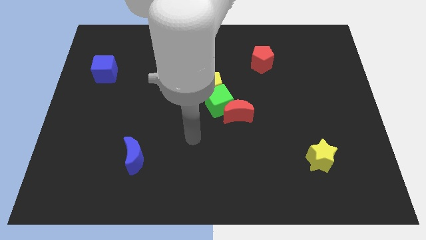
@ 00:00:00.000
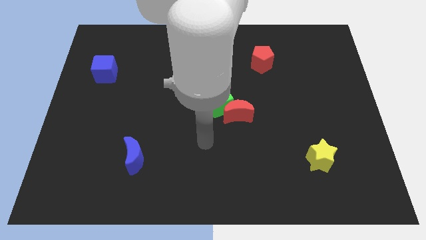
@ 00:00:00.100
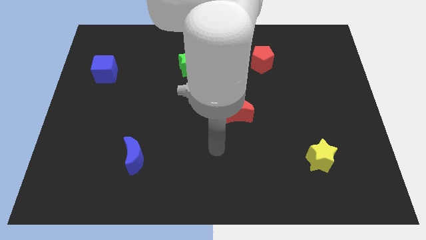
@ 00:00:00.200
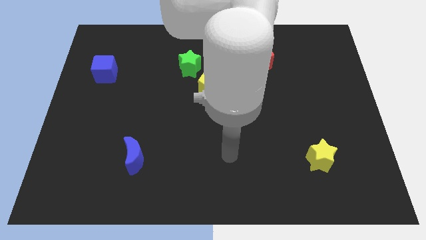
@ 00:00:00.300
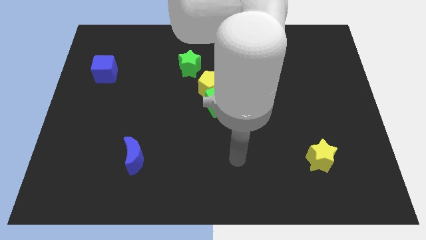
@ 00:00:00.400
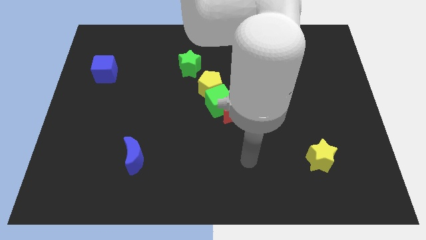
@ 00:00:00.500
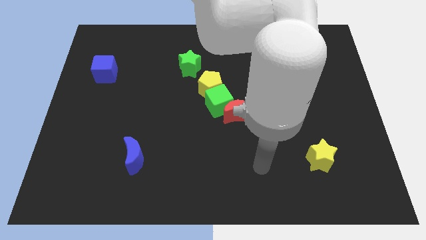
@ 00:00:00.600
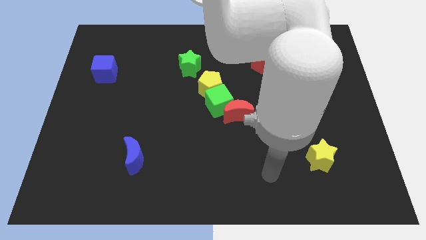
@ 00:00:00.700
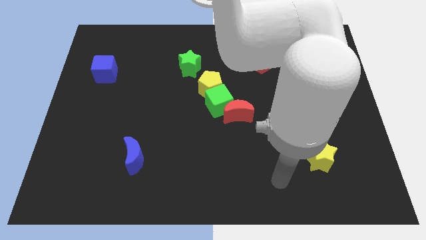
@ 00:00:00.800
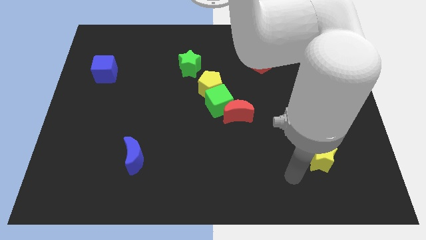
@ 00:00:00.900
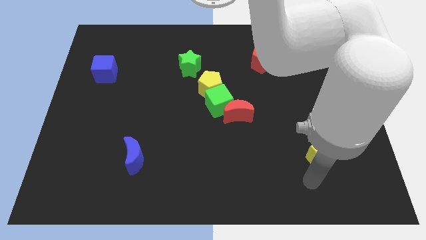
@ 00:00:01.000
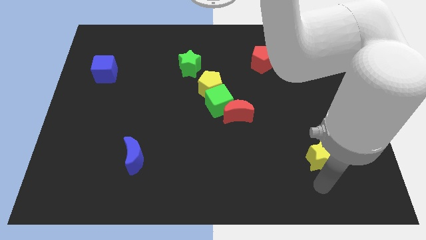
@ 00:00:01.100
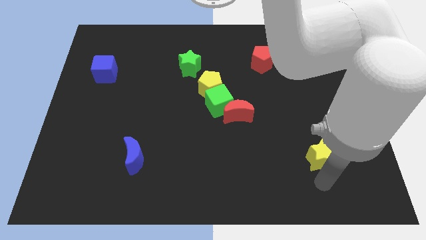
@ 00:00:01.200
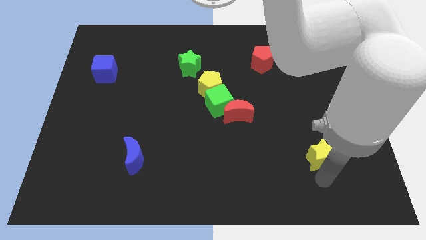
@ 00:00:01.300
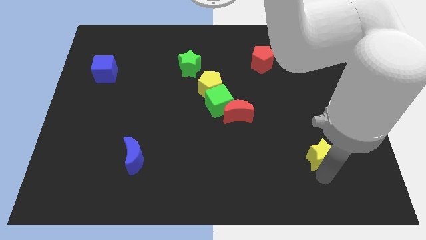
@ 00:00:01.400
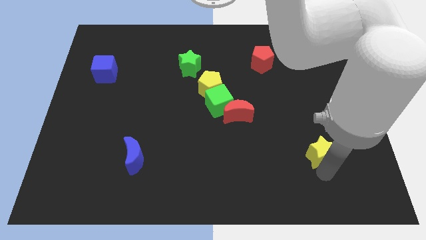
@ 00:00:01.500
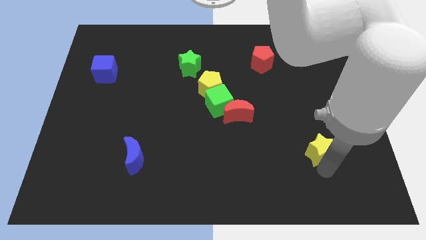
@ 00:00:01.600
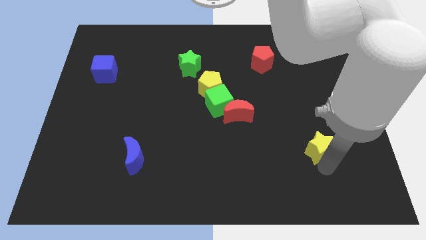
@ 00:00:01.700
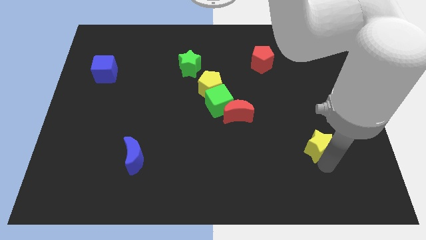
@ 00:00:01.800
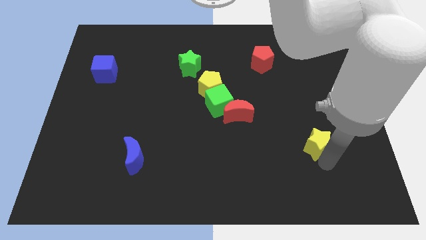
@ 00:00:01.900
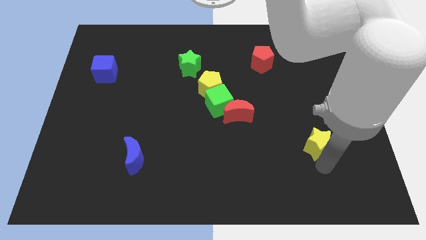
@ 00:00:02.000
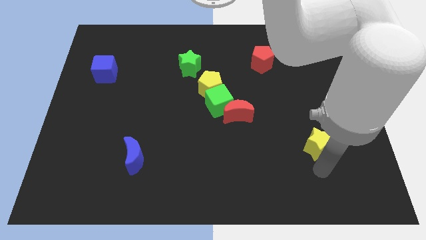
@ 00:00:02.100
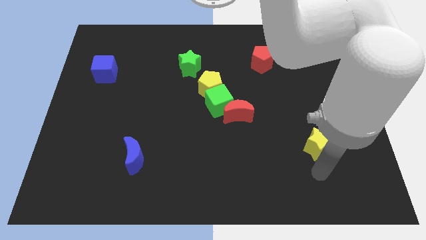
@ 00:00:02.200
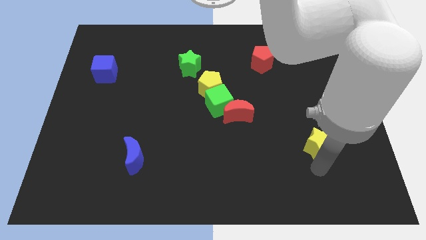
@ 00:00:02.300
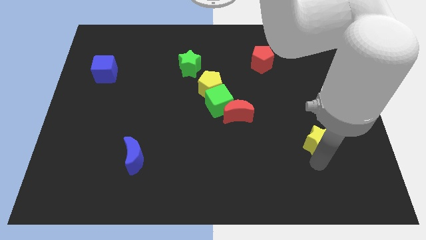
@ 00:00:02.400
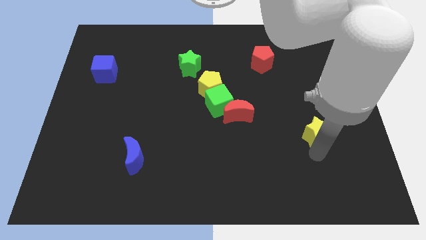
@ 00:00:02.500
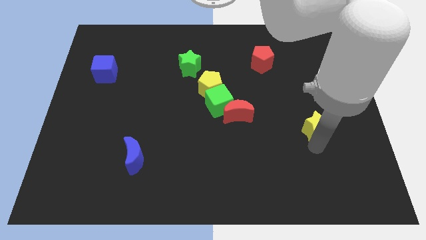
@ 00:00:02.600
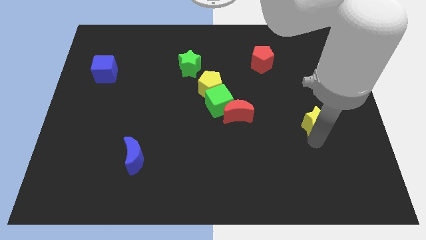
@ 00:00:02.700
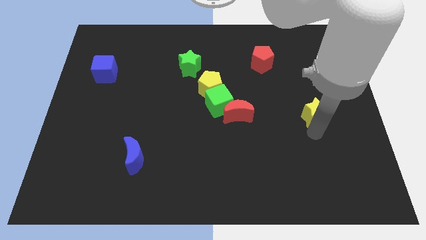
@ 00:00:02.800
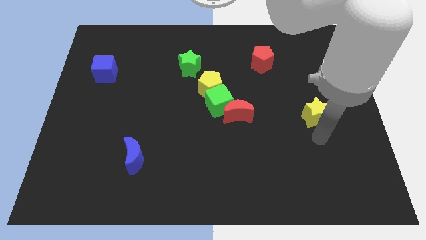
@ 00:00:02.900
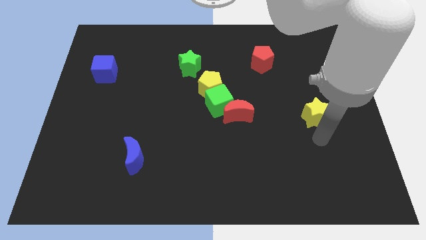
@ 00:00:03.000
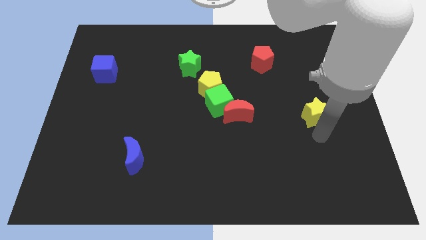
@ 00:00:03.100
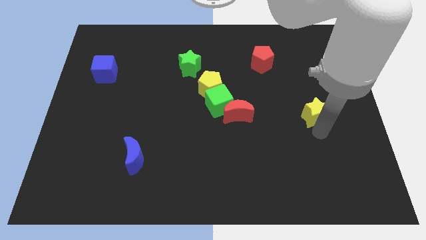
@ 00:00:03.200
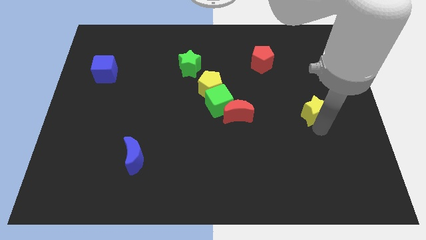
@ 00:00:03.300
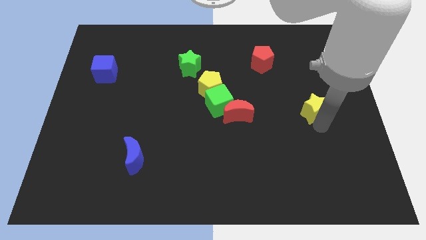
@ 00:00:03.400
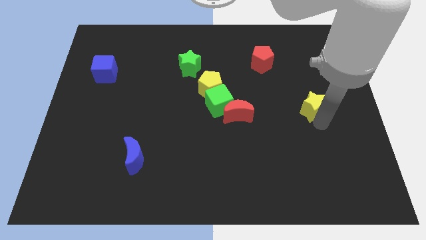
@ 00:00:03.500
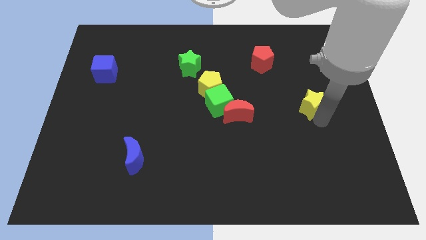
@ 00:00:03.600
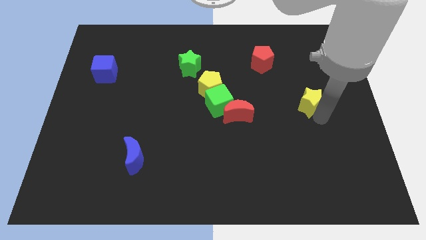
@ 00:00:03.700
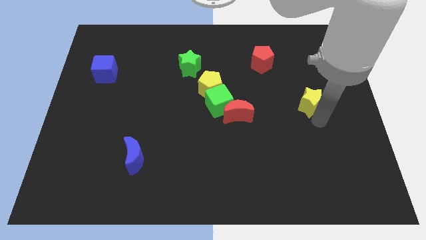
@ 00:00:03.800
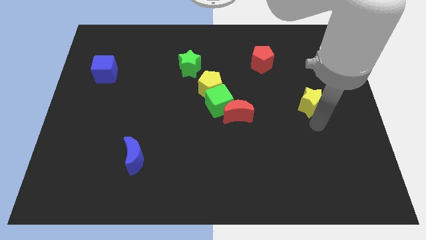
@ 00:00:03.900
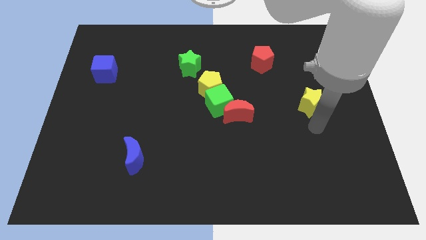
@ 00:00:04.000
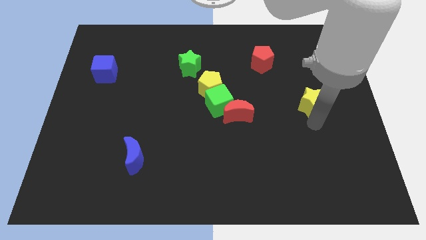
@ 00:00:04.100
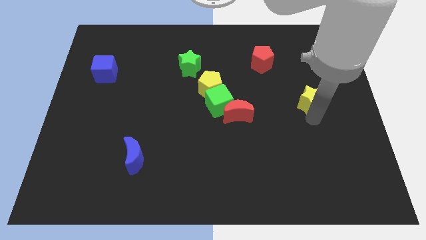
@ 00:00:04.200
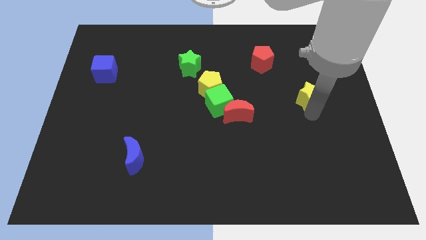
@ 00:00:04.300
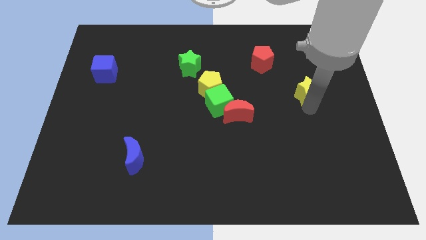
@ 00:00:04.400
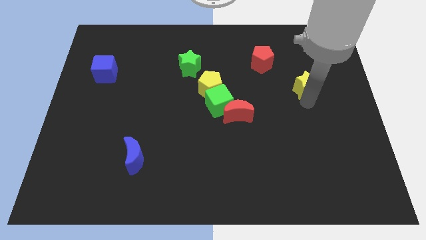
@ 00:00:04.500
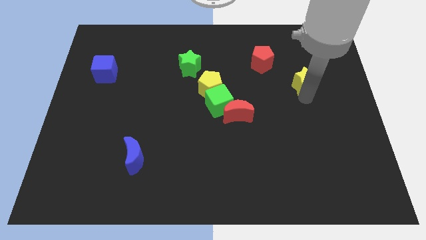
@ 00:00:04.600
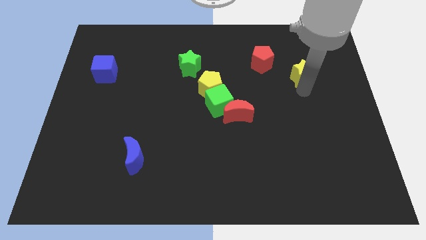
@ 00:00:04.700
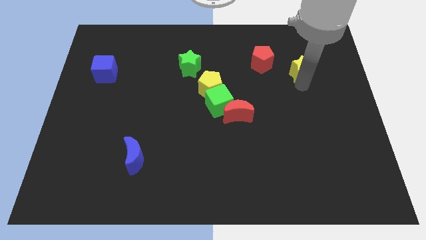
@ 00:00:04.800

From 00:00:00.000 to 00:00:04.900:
push the yellow star to the right side of the red pentagon

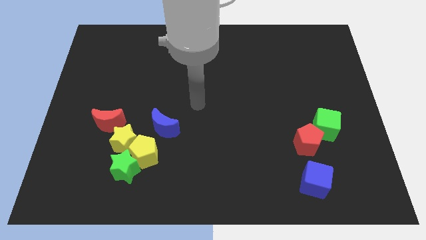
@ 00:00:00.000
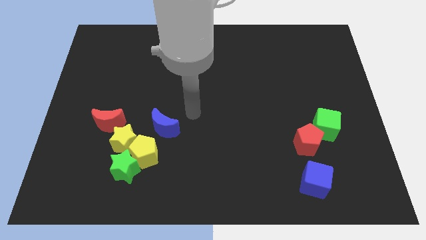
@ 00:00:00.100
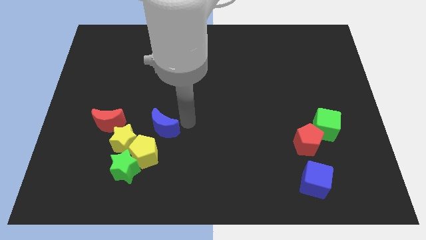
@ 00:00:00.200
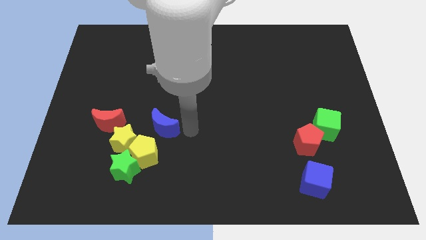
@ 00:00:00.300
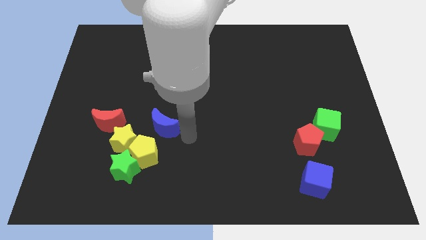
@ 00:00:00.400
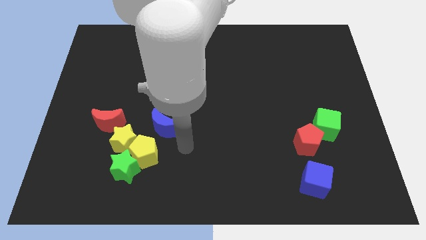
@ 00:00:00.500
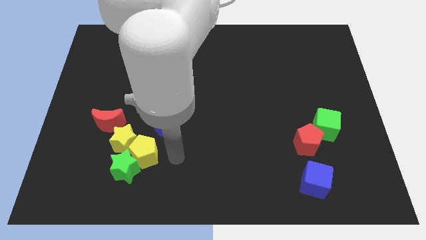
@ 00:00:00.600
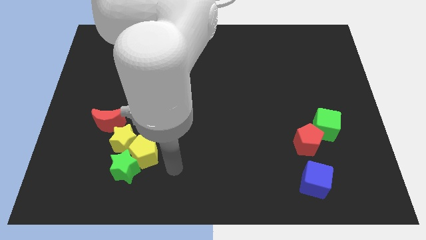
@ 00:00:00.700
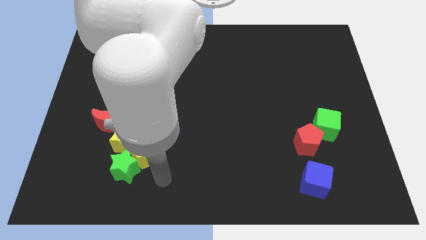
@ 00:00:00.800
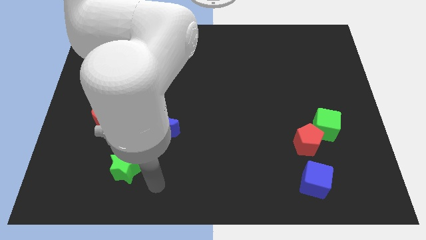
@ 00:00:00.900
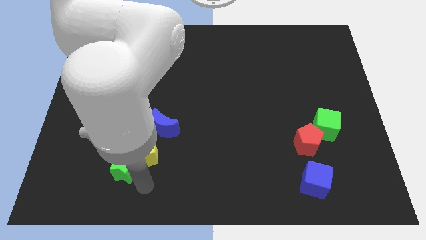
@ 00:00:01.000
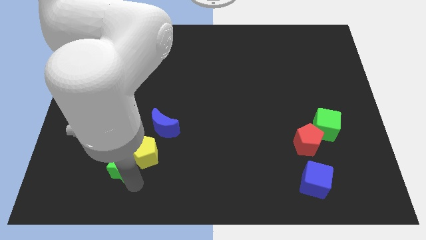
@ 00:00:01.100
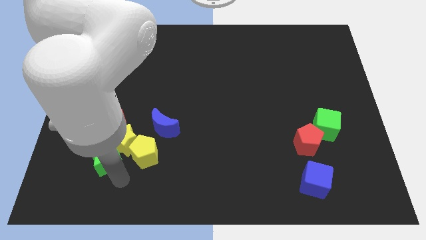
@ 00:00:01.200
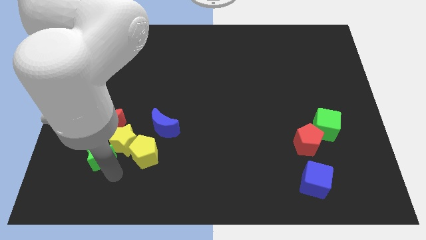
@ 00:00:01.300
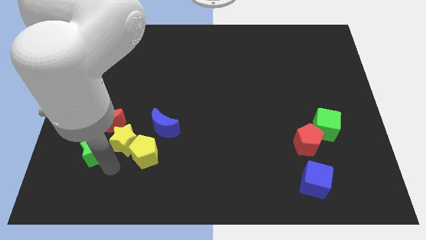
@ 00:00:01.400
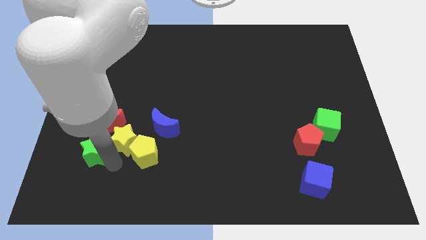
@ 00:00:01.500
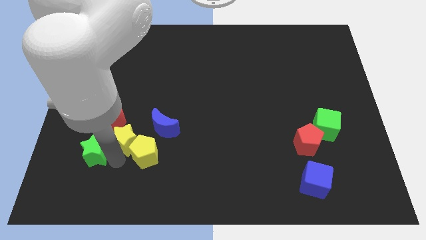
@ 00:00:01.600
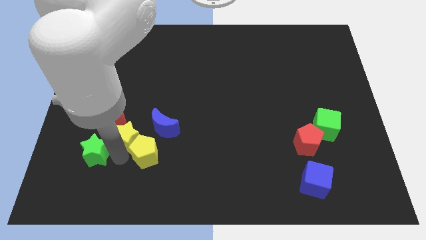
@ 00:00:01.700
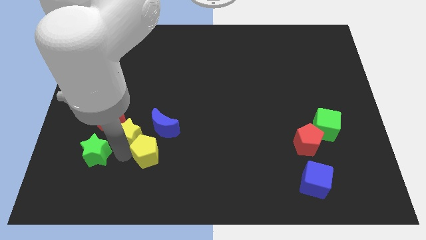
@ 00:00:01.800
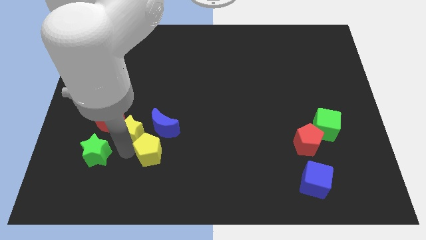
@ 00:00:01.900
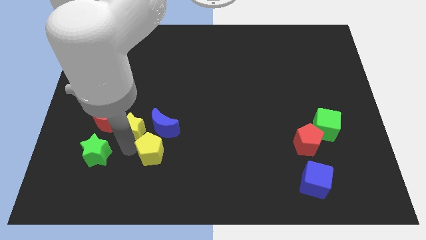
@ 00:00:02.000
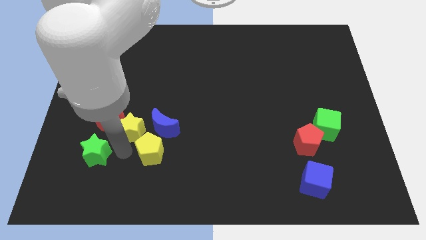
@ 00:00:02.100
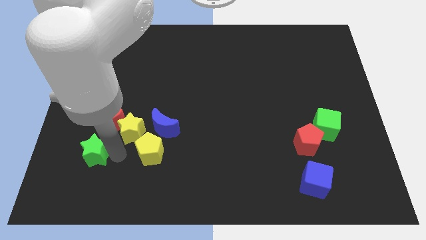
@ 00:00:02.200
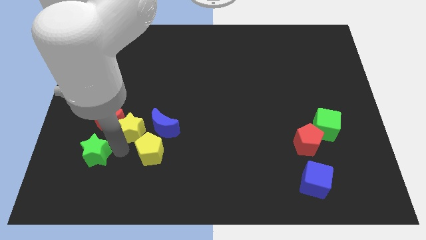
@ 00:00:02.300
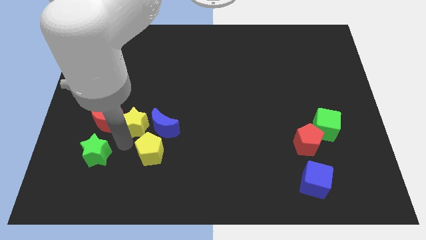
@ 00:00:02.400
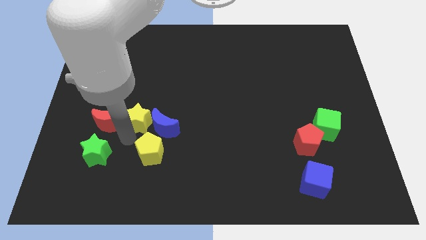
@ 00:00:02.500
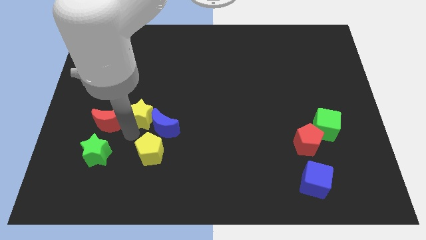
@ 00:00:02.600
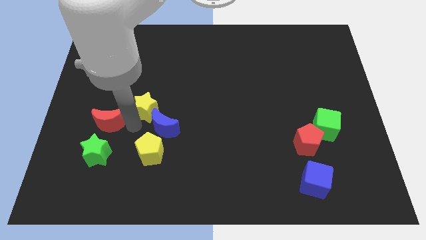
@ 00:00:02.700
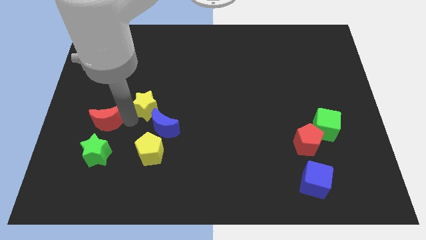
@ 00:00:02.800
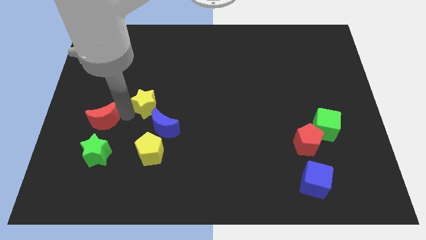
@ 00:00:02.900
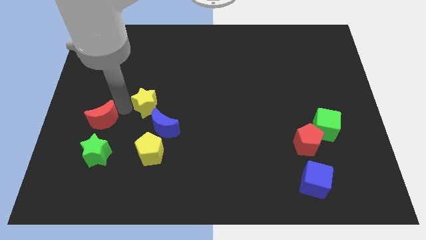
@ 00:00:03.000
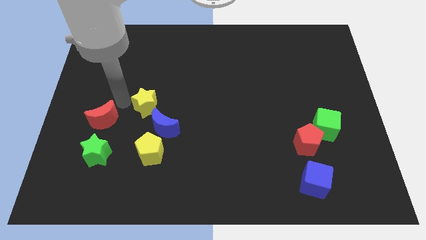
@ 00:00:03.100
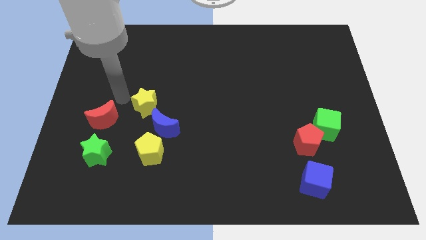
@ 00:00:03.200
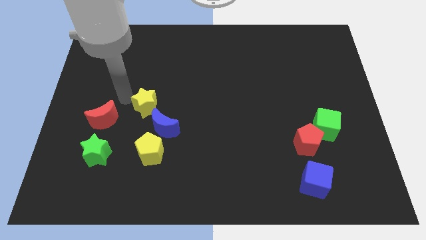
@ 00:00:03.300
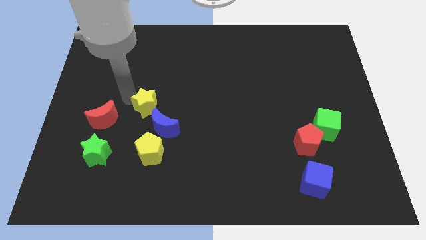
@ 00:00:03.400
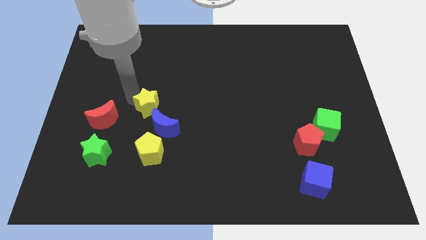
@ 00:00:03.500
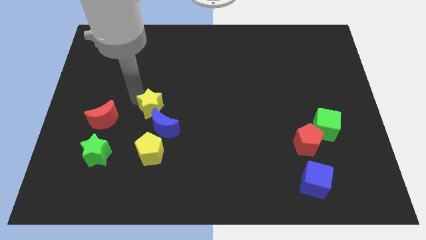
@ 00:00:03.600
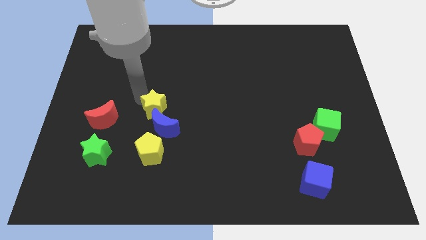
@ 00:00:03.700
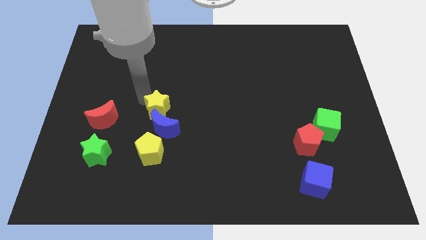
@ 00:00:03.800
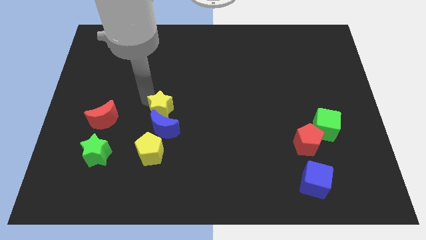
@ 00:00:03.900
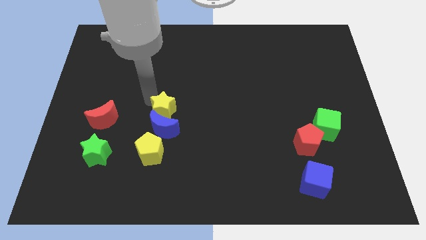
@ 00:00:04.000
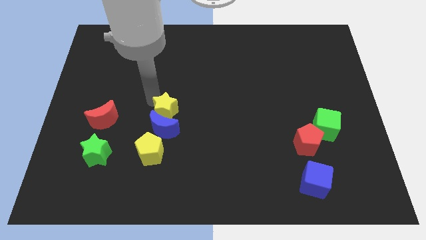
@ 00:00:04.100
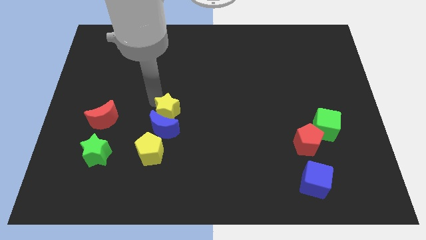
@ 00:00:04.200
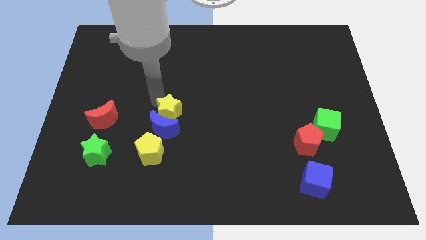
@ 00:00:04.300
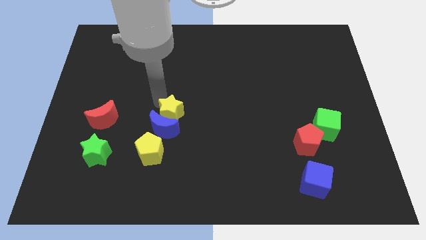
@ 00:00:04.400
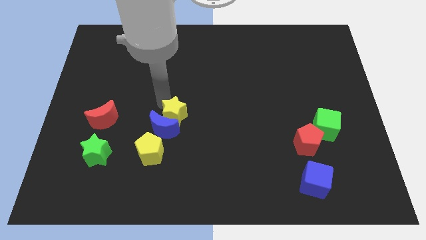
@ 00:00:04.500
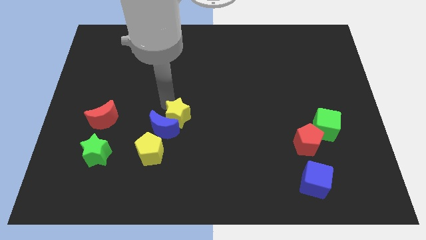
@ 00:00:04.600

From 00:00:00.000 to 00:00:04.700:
slide the yellow star to the right of the blue moon
